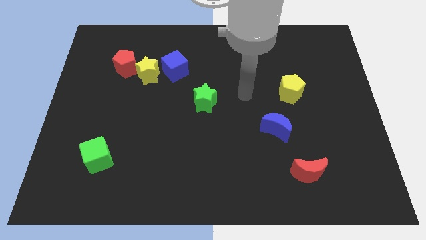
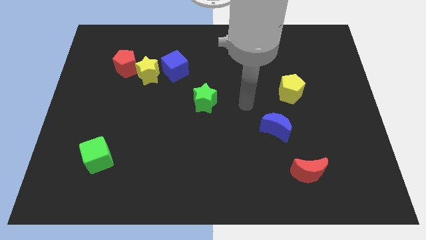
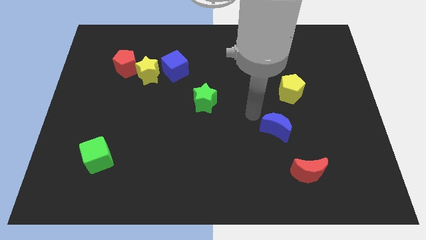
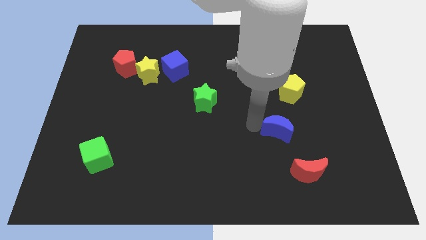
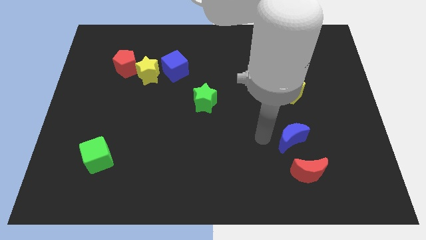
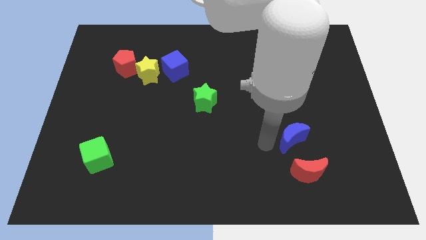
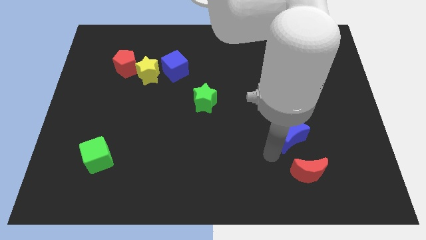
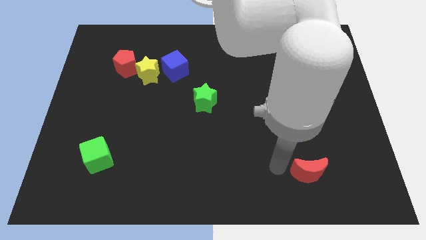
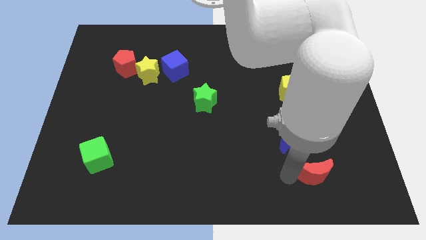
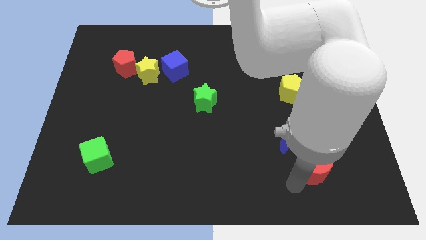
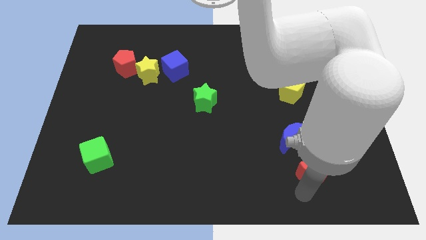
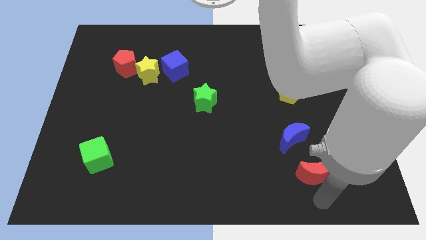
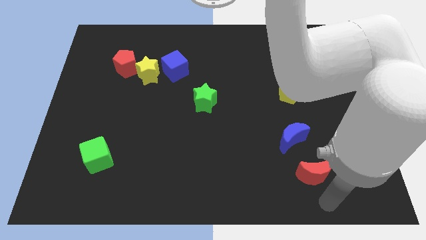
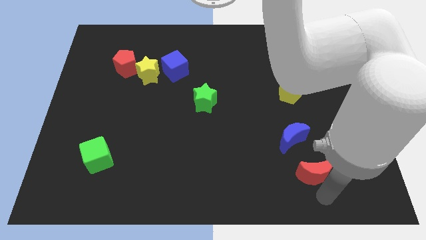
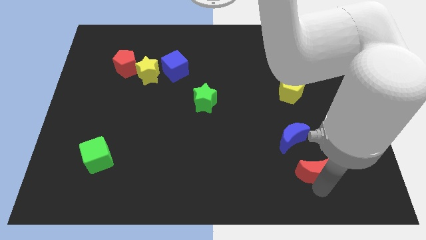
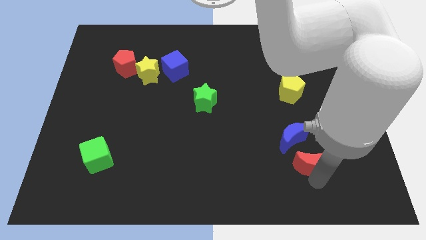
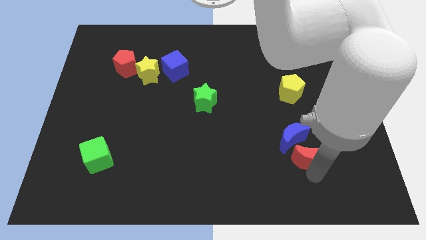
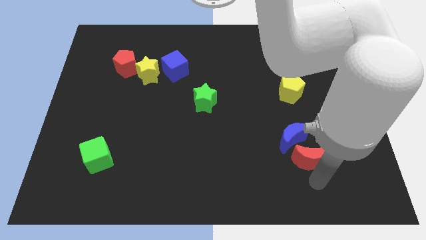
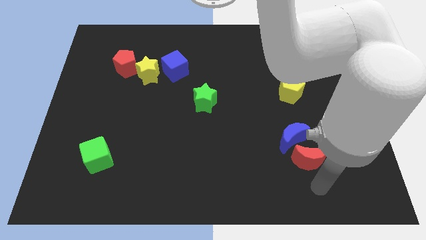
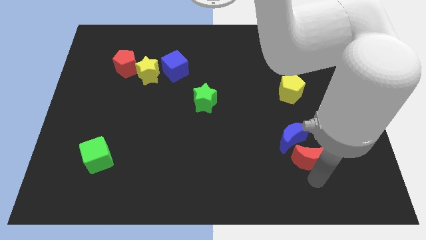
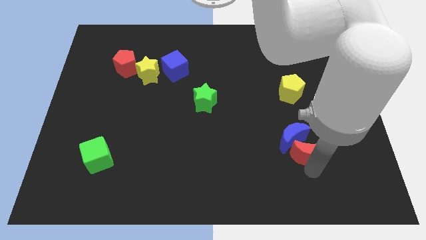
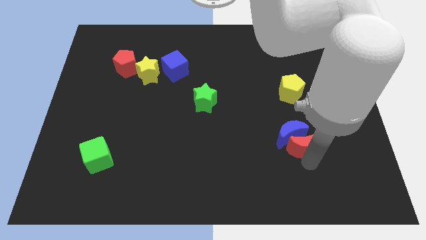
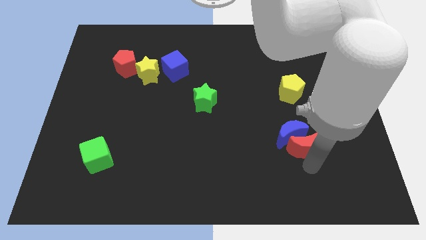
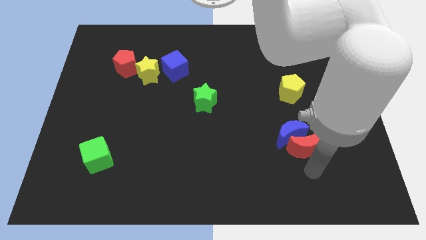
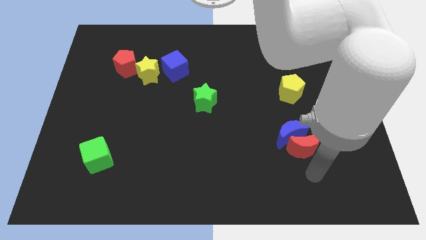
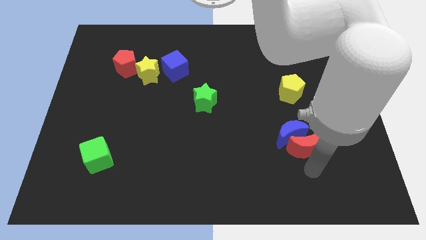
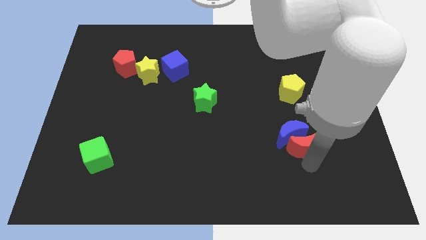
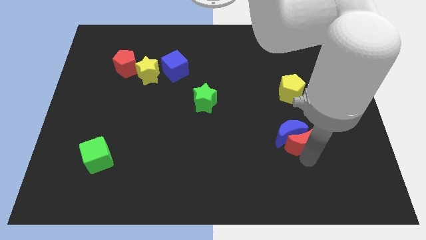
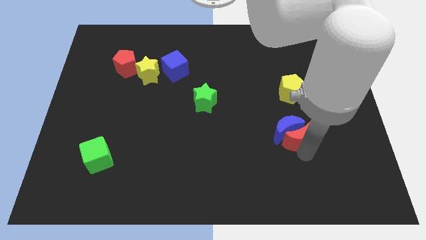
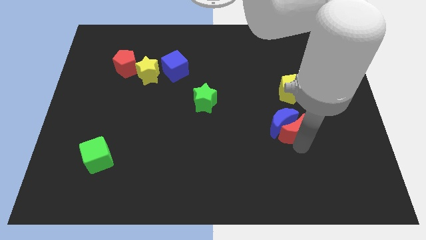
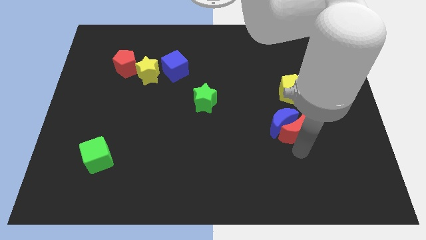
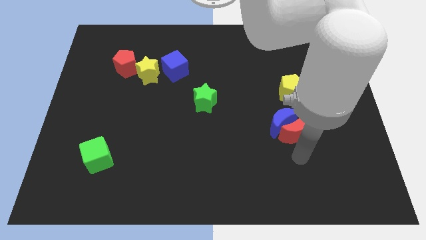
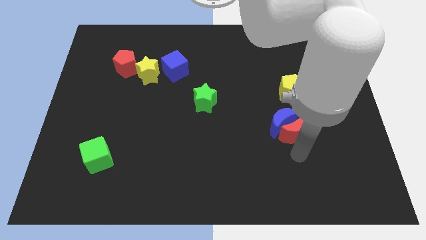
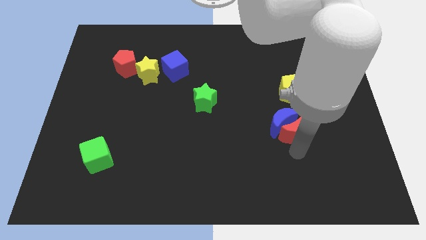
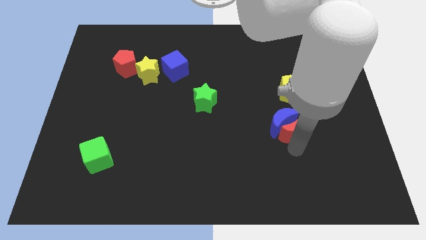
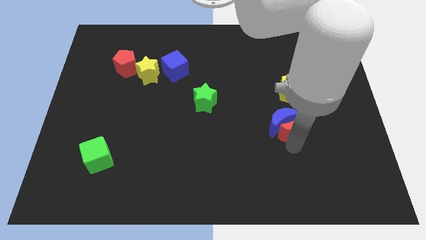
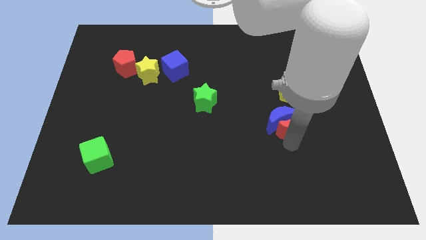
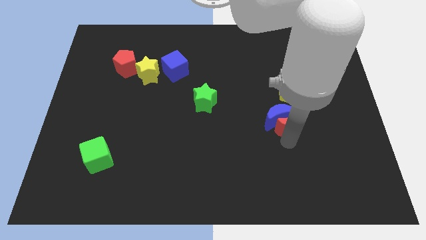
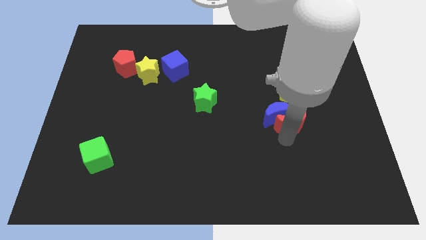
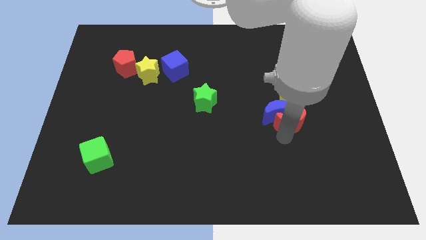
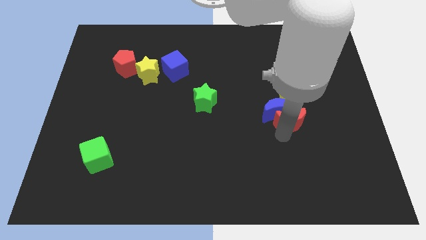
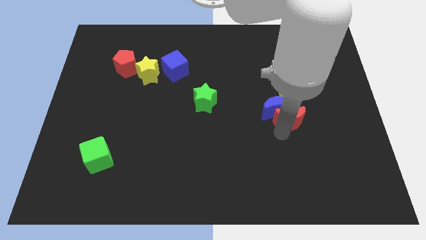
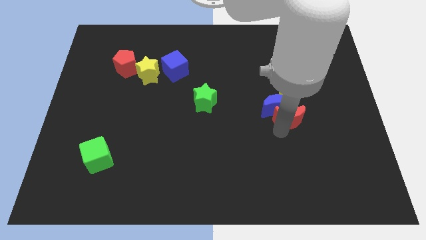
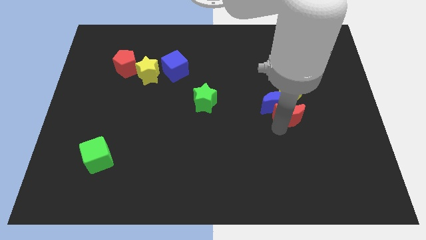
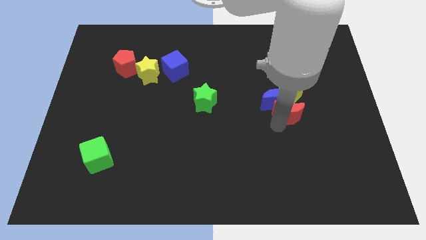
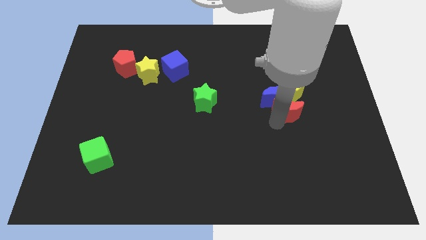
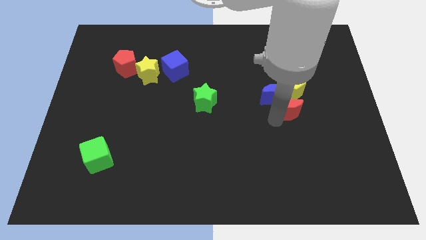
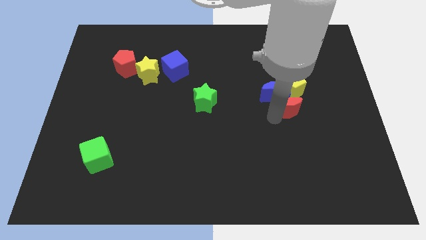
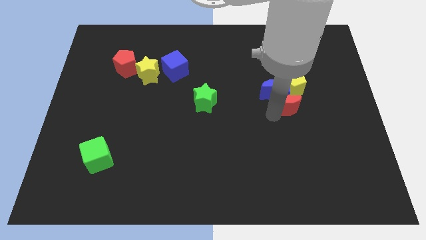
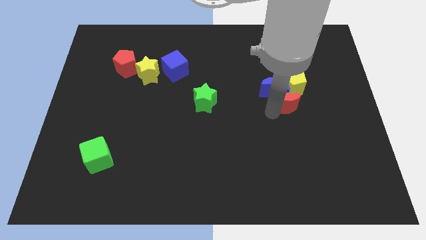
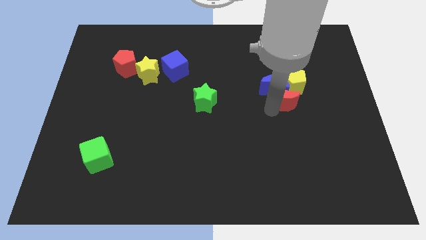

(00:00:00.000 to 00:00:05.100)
move the red moon close to the yellow pentagon

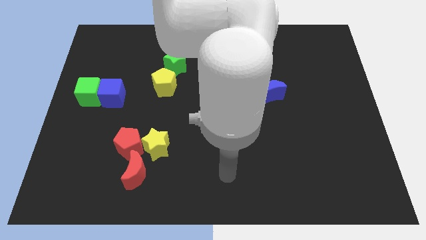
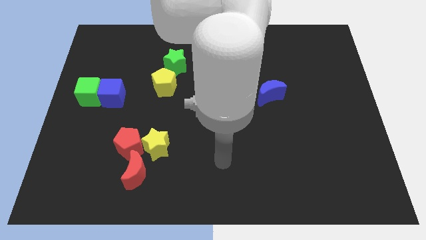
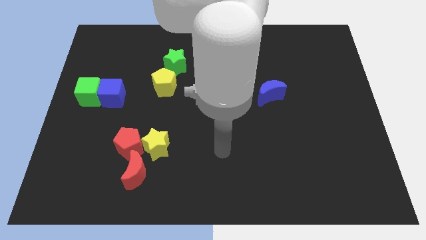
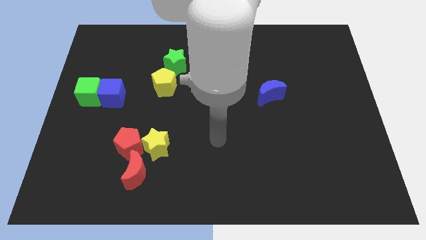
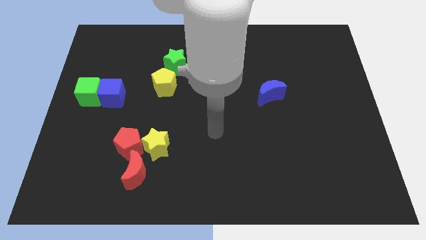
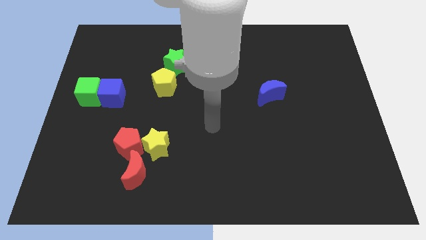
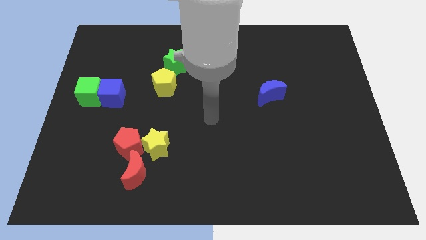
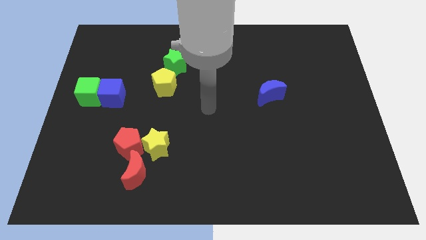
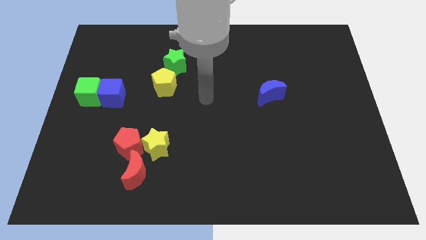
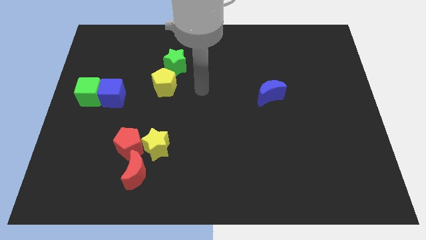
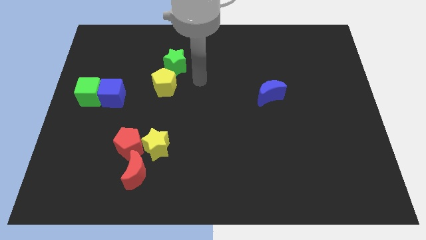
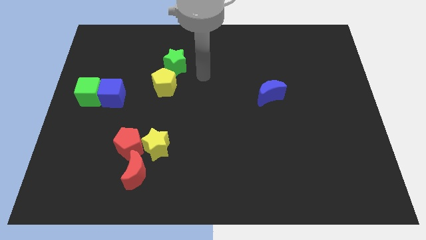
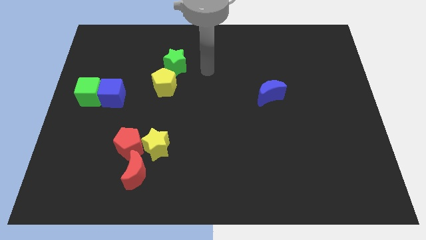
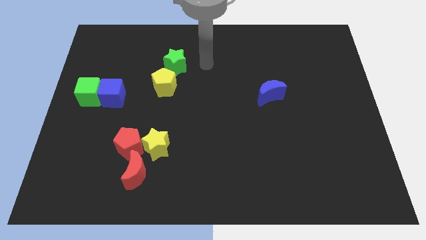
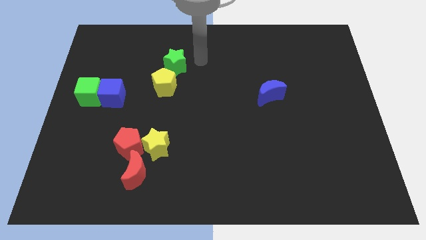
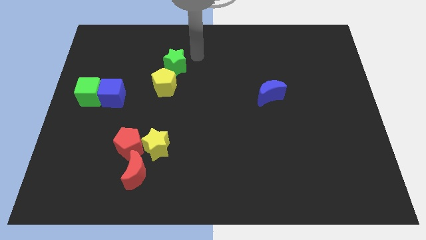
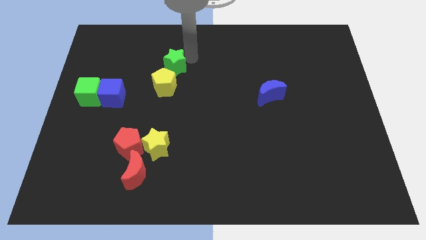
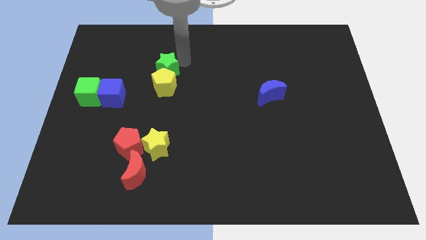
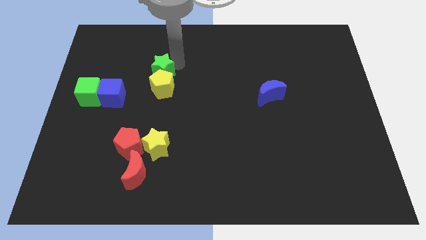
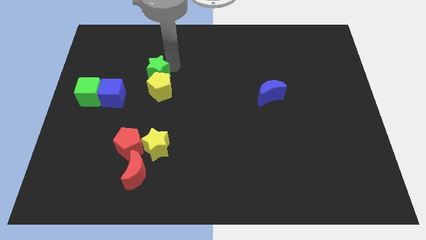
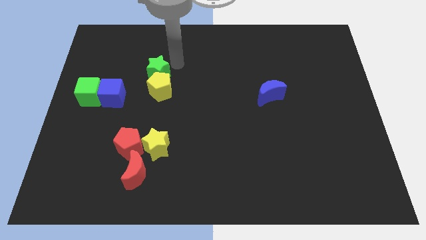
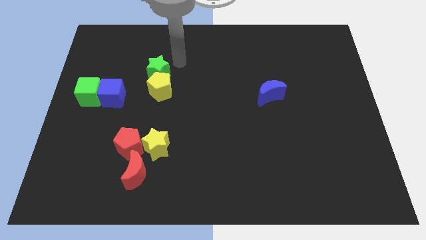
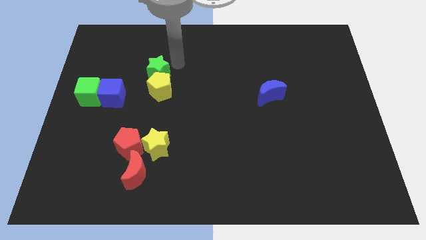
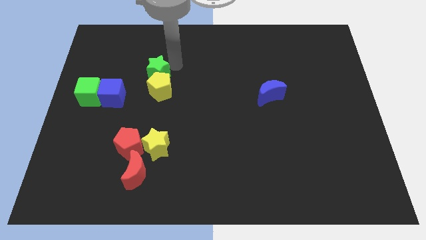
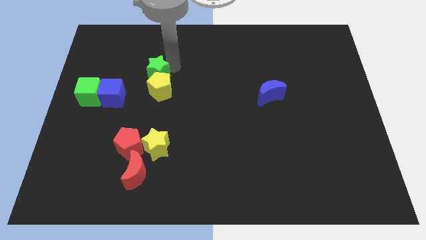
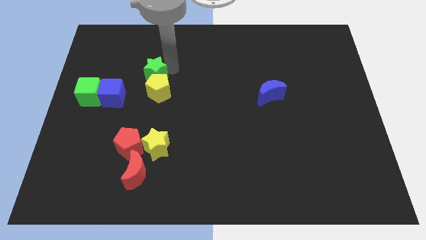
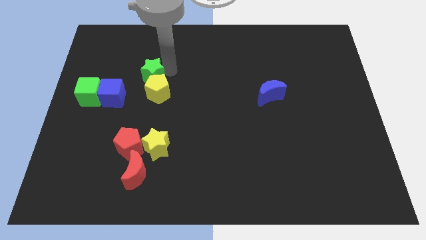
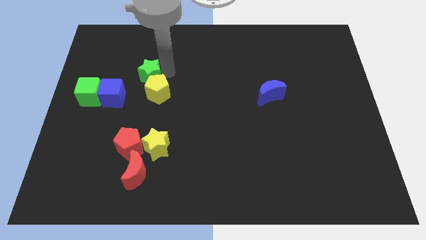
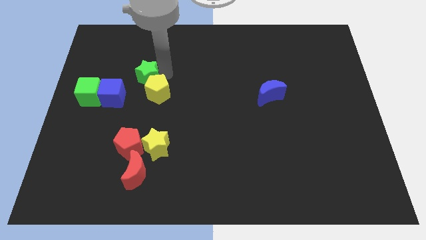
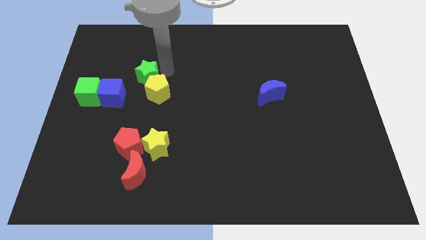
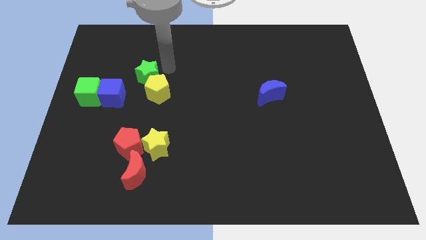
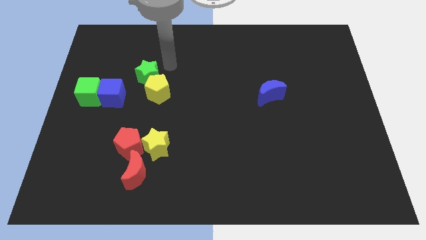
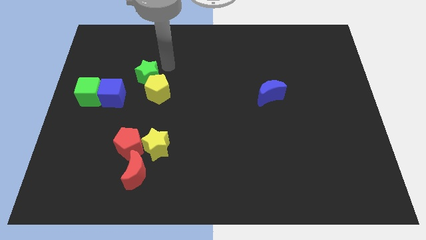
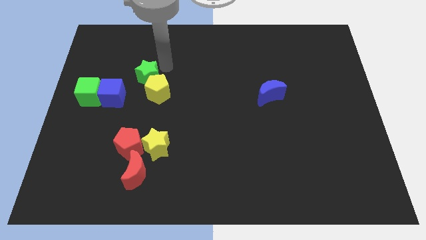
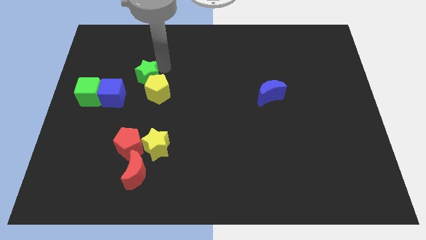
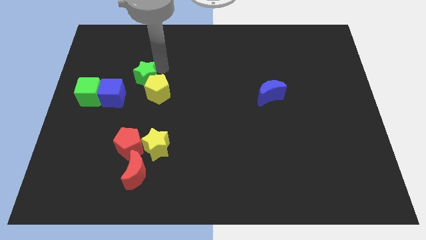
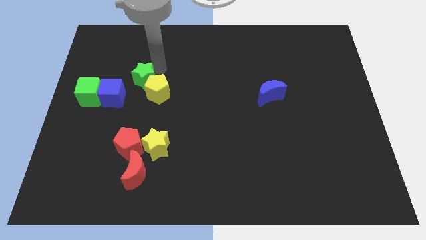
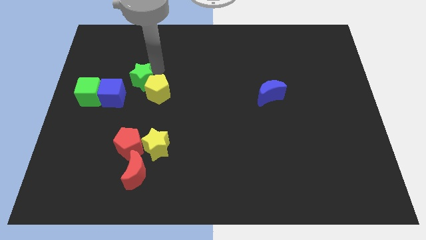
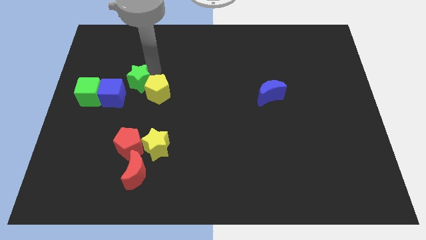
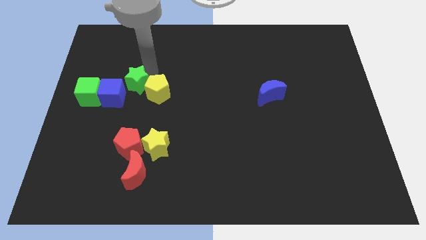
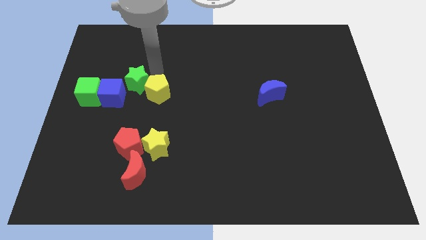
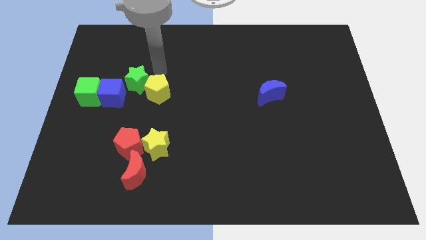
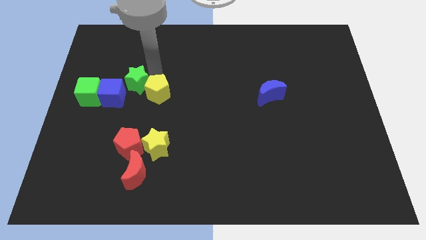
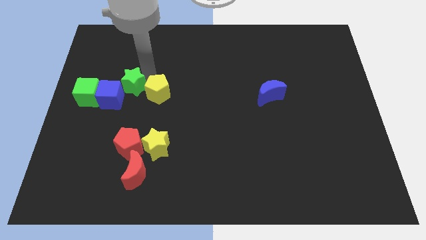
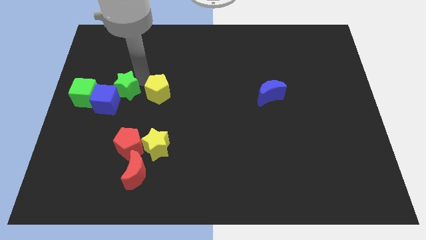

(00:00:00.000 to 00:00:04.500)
push the green star next to the blue cube
